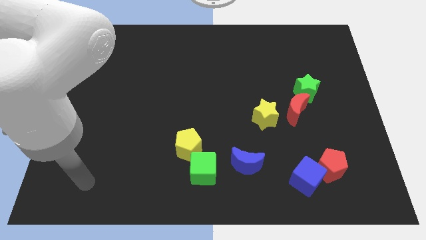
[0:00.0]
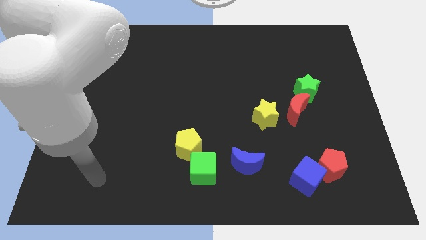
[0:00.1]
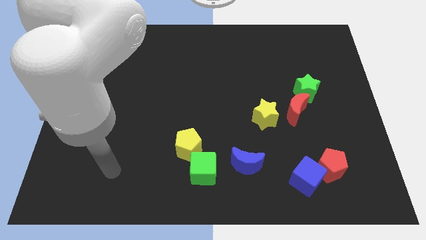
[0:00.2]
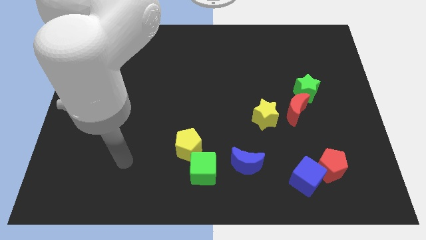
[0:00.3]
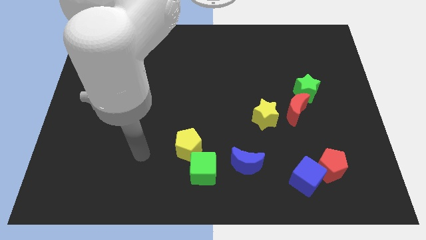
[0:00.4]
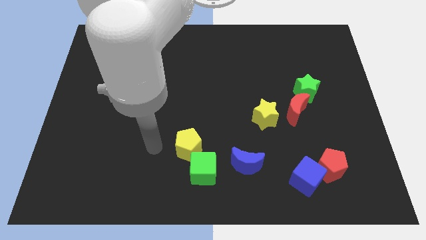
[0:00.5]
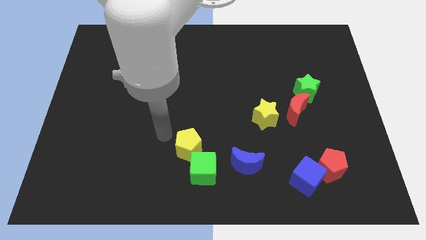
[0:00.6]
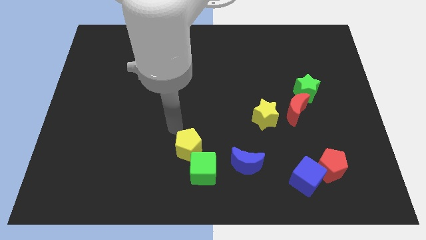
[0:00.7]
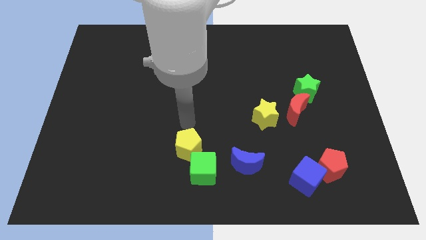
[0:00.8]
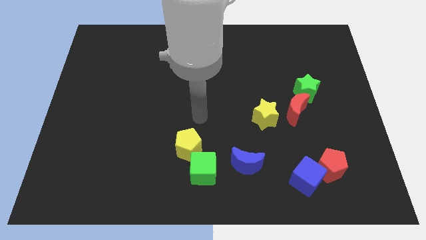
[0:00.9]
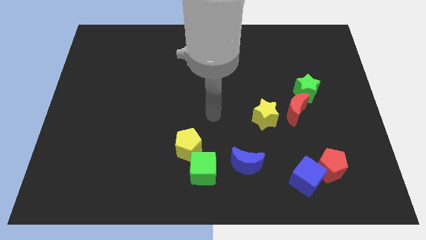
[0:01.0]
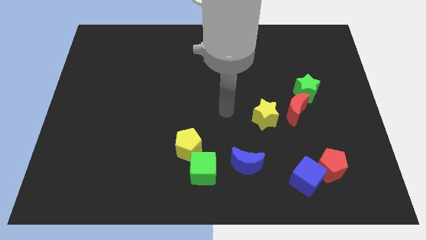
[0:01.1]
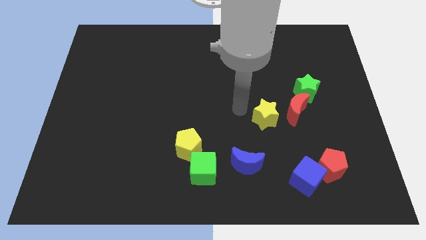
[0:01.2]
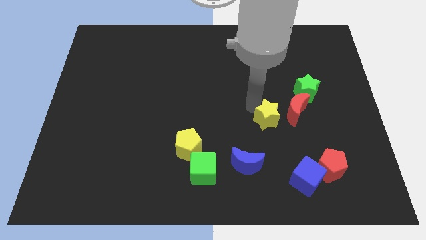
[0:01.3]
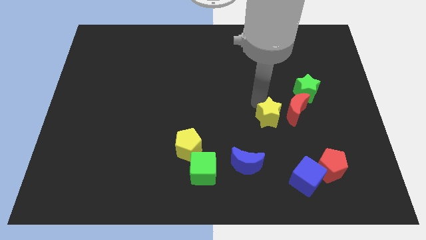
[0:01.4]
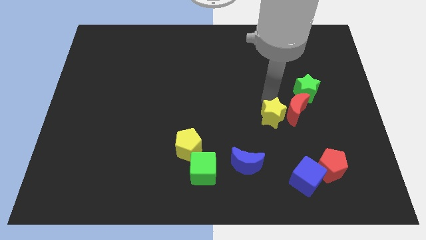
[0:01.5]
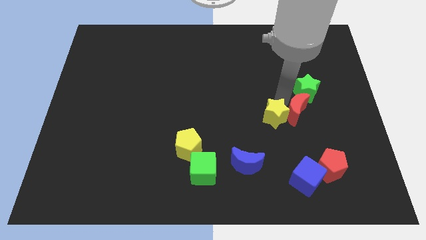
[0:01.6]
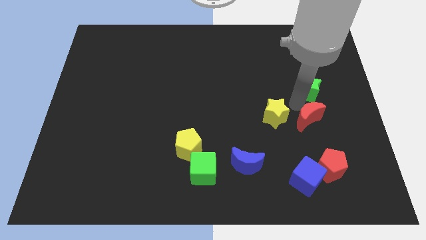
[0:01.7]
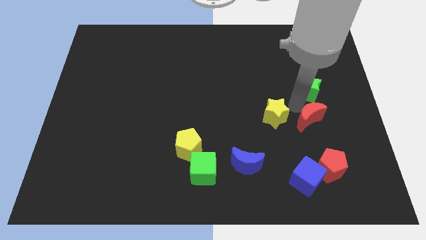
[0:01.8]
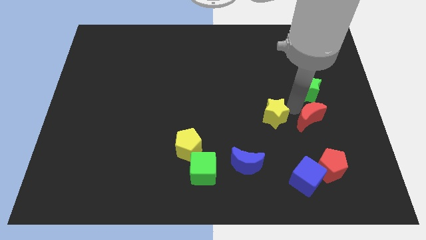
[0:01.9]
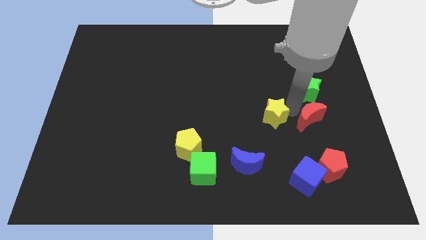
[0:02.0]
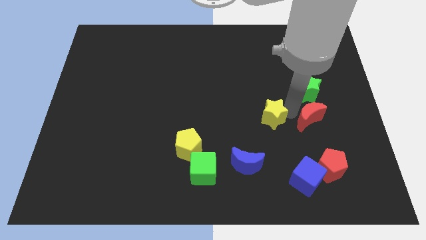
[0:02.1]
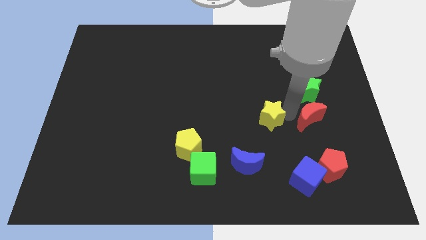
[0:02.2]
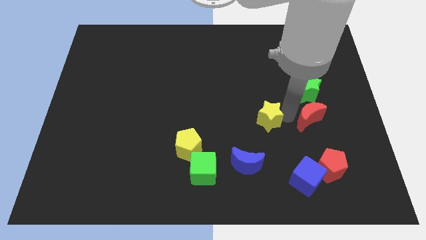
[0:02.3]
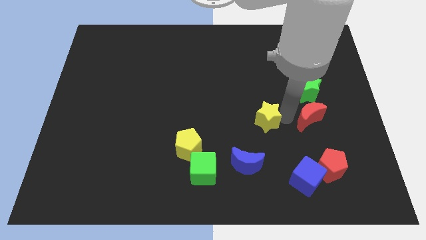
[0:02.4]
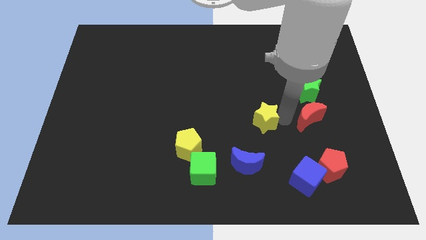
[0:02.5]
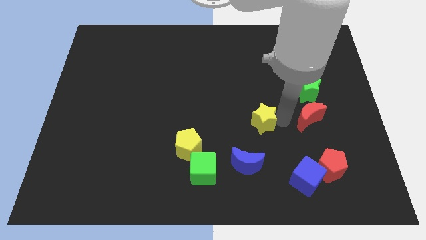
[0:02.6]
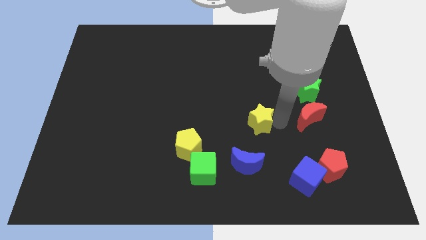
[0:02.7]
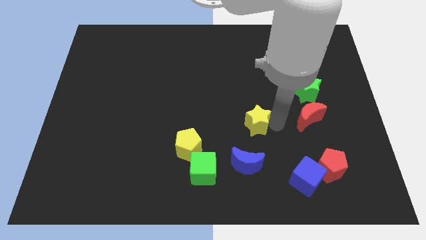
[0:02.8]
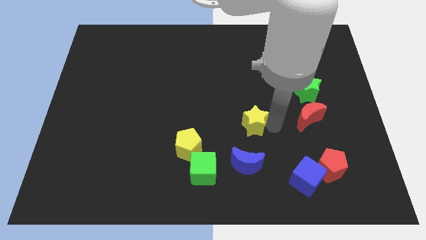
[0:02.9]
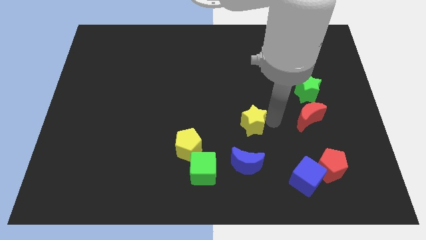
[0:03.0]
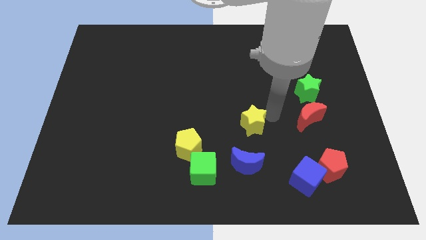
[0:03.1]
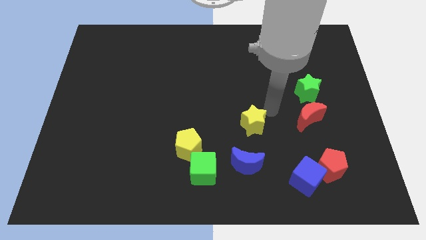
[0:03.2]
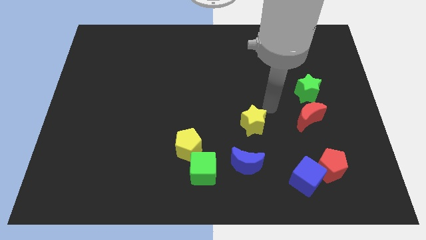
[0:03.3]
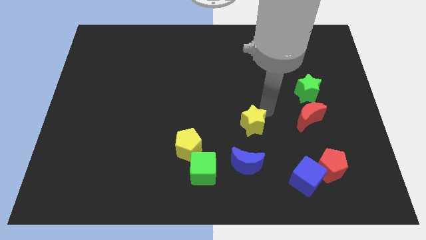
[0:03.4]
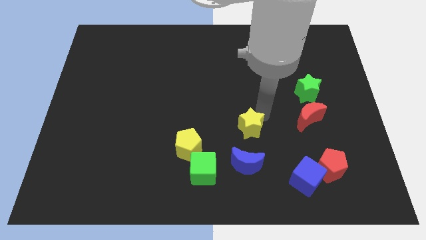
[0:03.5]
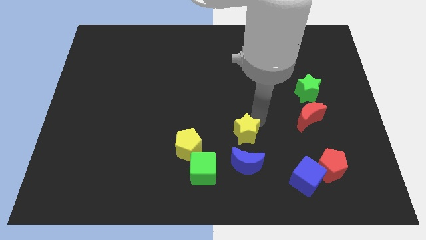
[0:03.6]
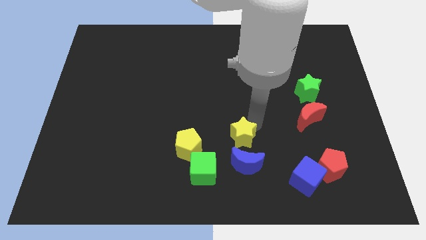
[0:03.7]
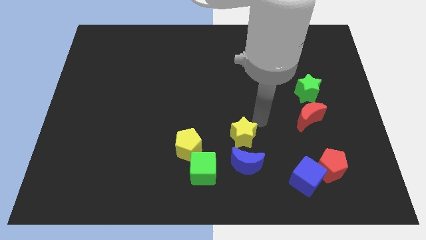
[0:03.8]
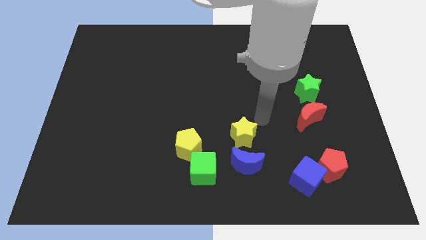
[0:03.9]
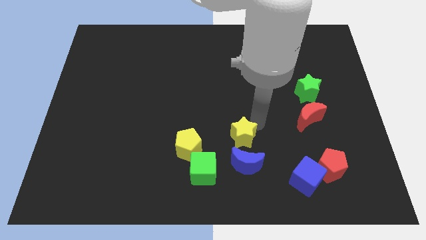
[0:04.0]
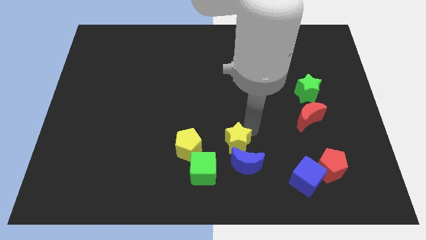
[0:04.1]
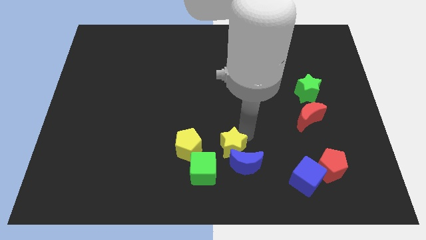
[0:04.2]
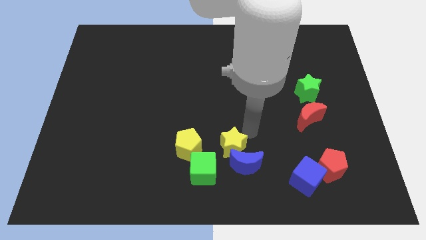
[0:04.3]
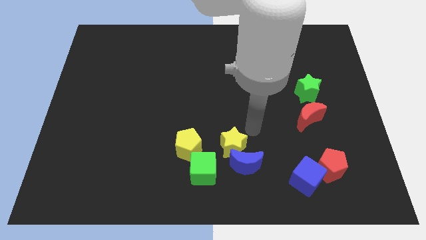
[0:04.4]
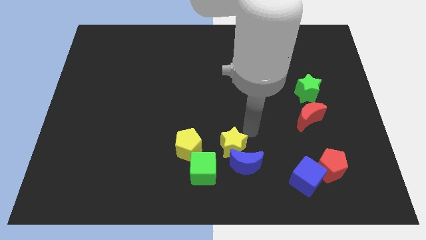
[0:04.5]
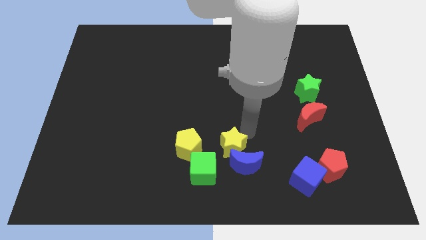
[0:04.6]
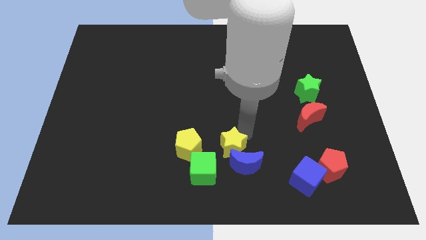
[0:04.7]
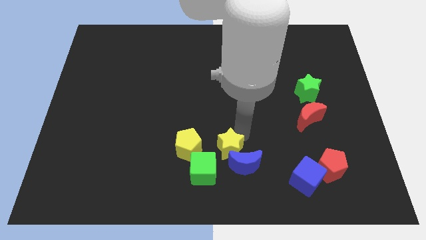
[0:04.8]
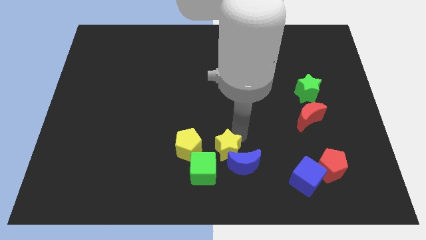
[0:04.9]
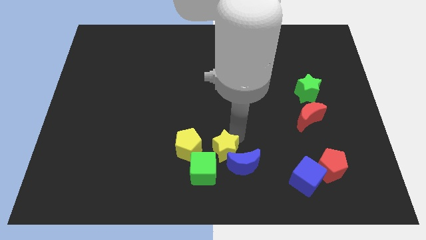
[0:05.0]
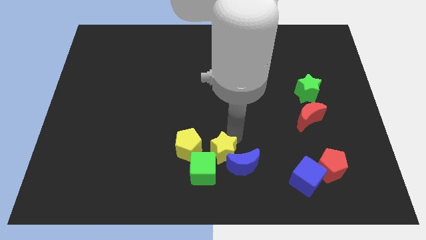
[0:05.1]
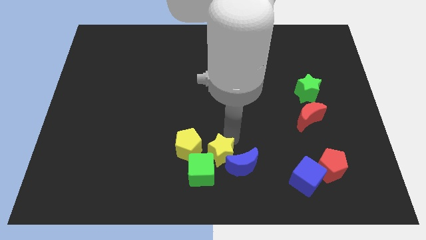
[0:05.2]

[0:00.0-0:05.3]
put the yellow star close to the green cube

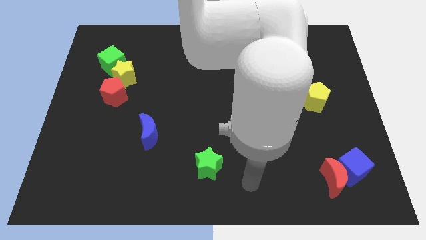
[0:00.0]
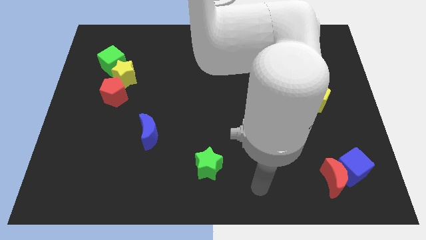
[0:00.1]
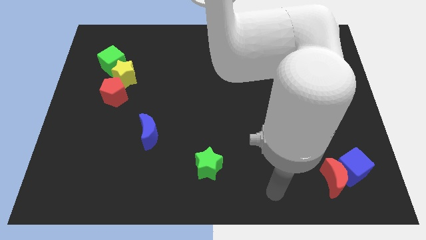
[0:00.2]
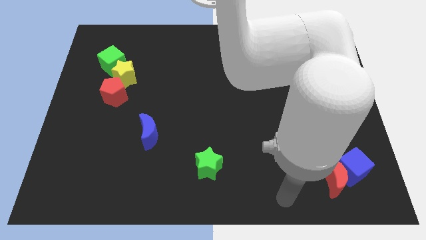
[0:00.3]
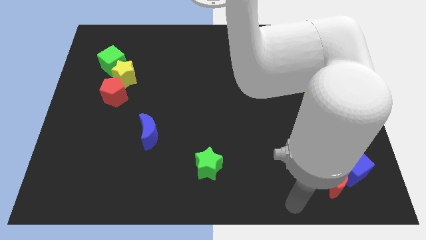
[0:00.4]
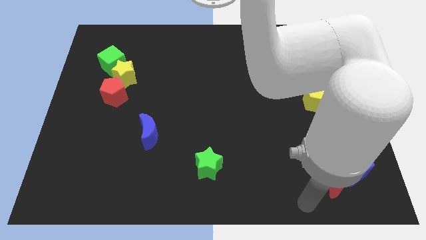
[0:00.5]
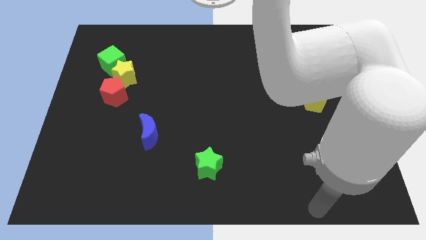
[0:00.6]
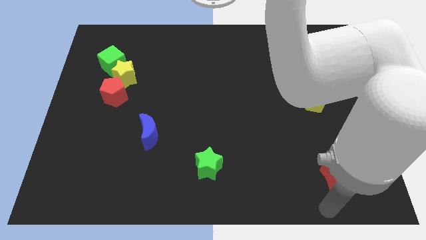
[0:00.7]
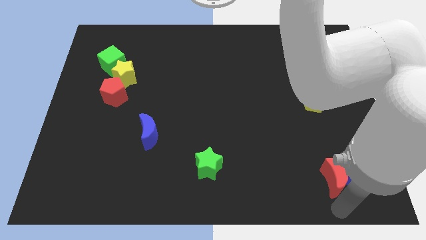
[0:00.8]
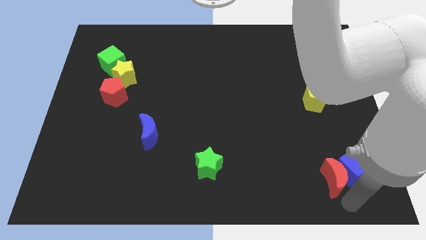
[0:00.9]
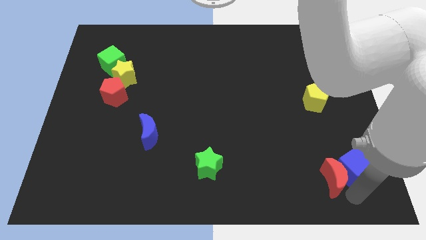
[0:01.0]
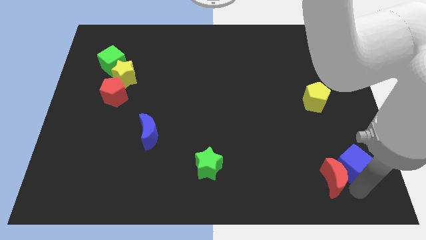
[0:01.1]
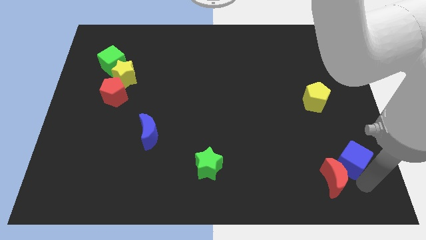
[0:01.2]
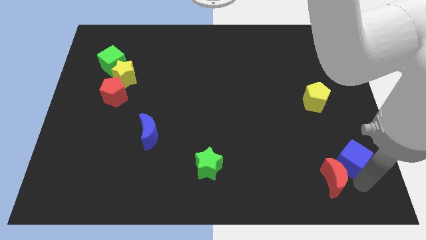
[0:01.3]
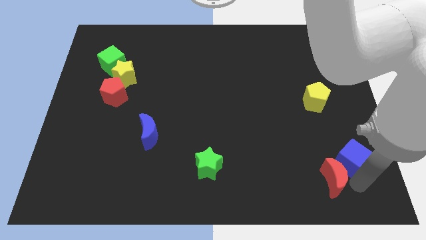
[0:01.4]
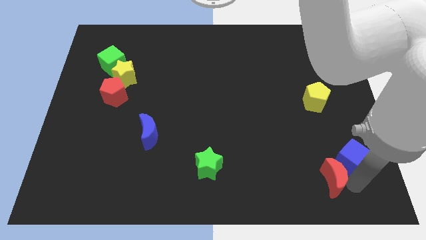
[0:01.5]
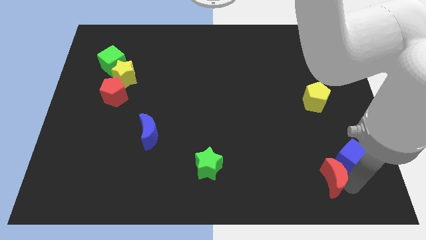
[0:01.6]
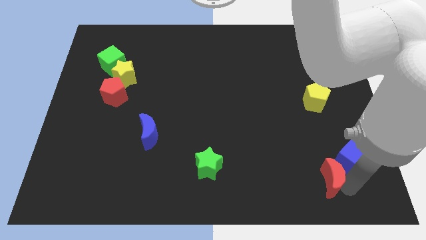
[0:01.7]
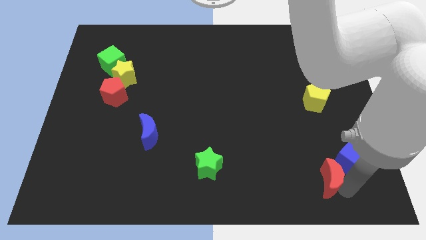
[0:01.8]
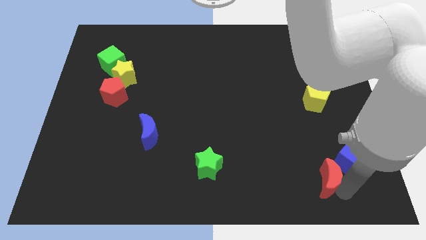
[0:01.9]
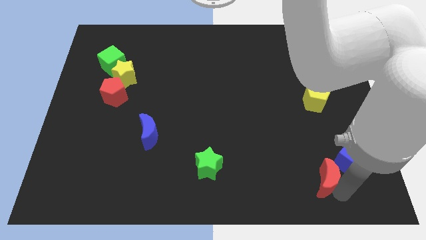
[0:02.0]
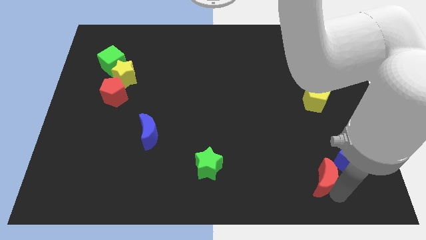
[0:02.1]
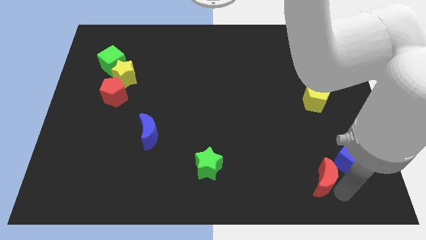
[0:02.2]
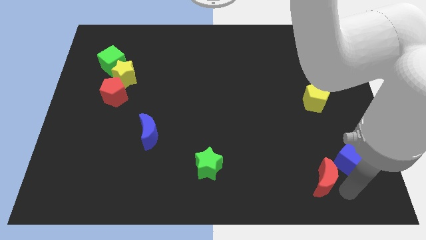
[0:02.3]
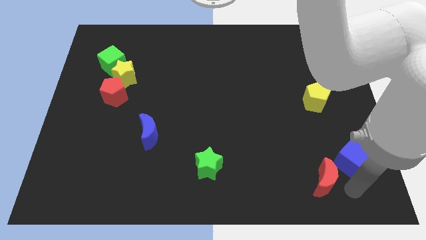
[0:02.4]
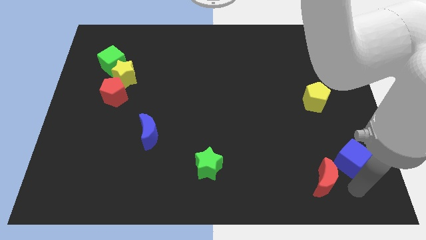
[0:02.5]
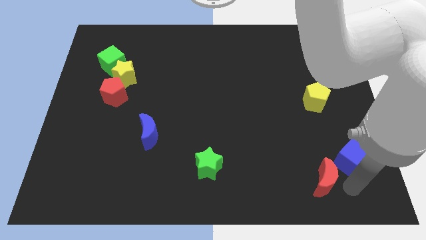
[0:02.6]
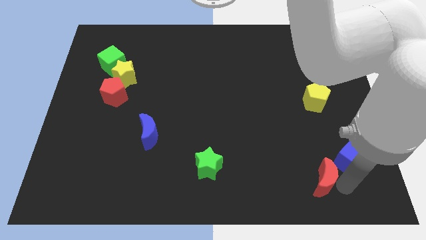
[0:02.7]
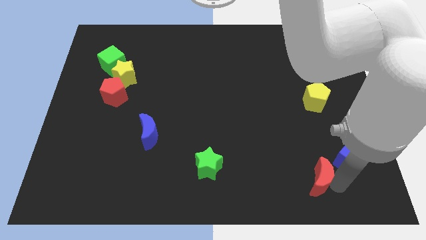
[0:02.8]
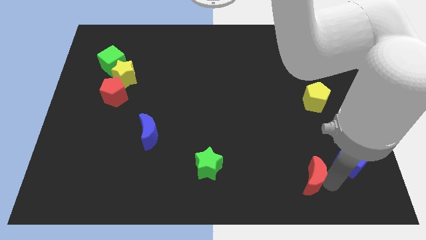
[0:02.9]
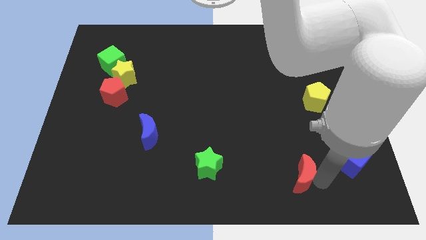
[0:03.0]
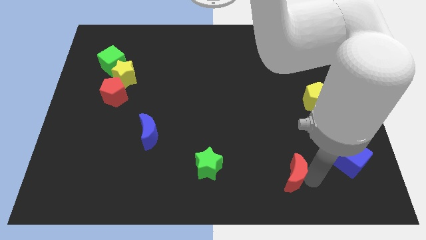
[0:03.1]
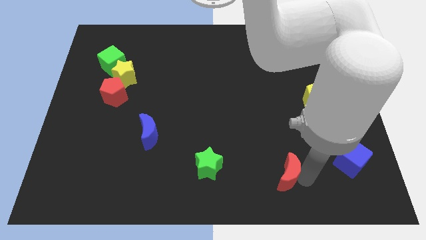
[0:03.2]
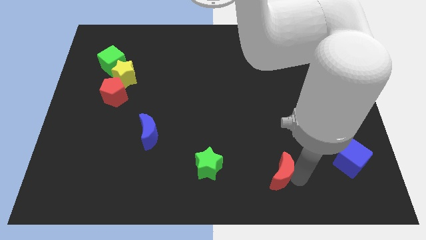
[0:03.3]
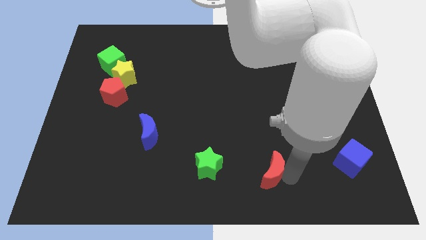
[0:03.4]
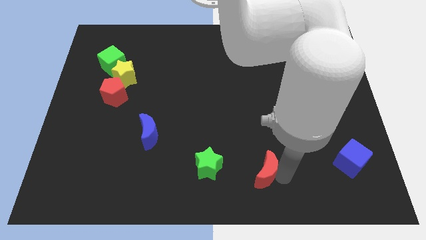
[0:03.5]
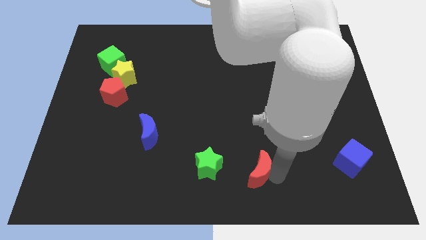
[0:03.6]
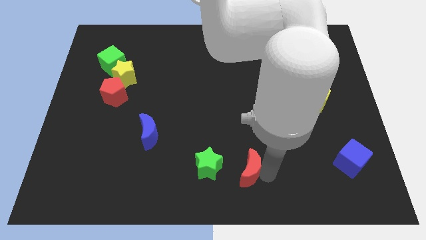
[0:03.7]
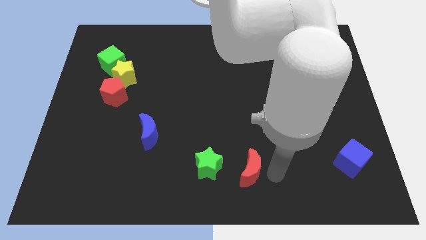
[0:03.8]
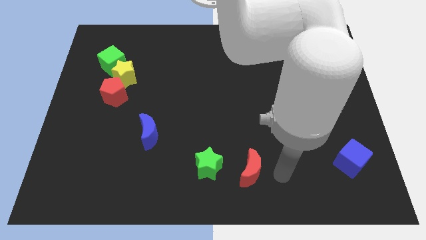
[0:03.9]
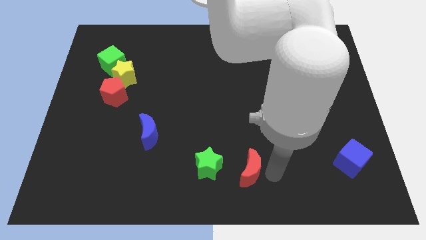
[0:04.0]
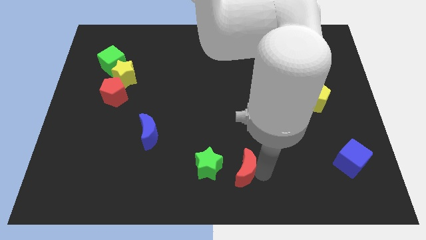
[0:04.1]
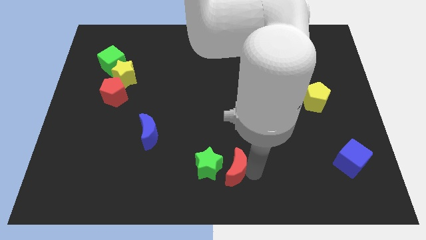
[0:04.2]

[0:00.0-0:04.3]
slide the red moon to the green star
